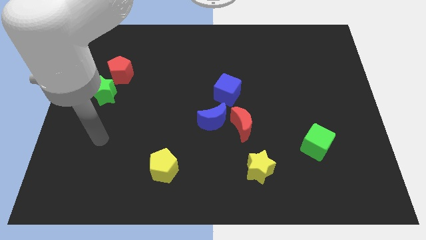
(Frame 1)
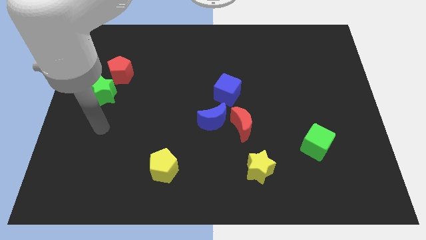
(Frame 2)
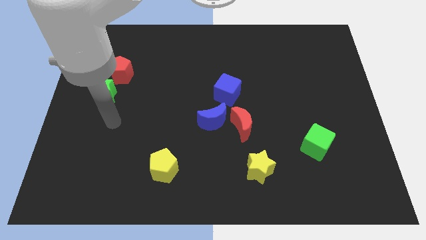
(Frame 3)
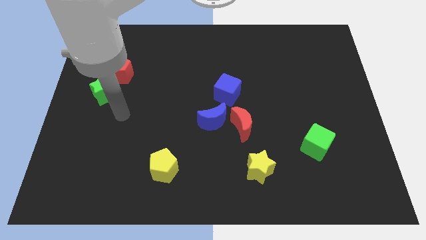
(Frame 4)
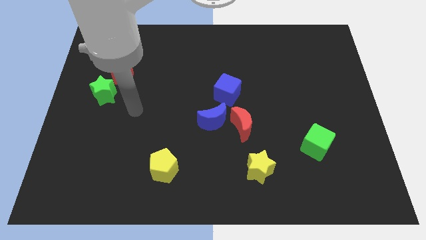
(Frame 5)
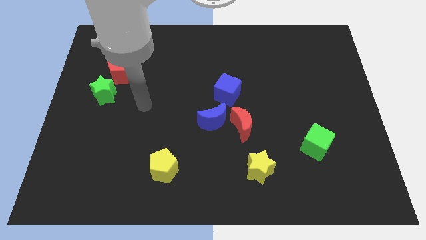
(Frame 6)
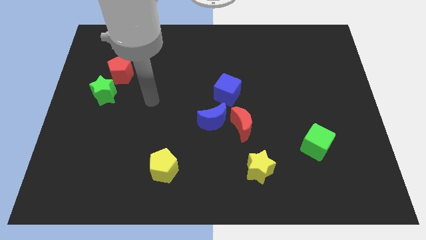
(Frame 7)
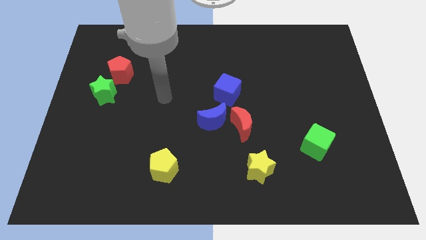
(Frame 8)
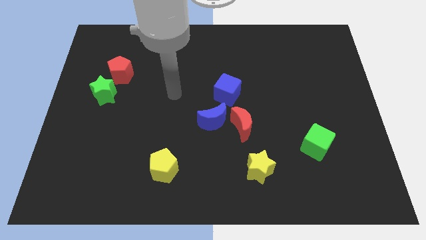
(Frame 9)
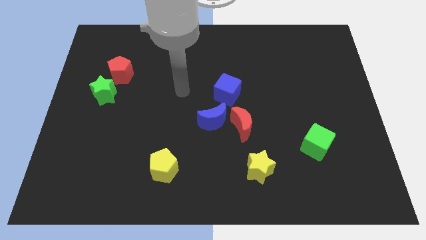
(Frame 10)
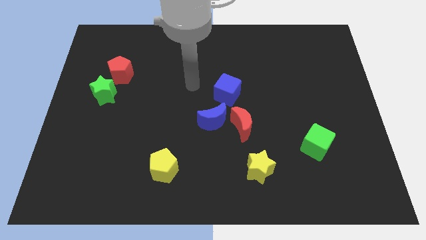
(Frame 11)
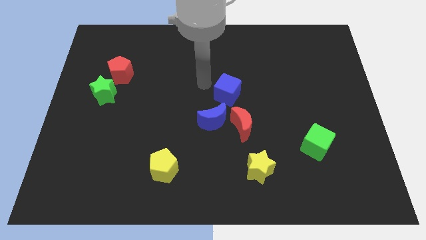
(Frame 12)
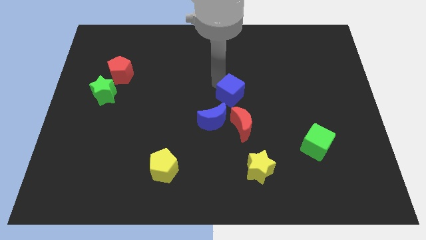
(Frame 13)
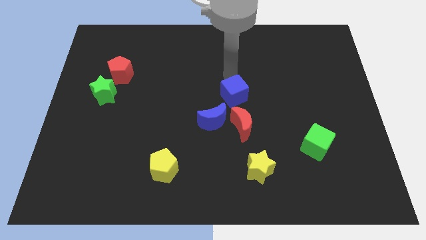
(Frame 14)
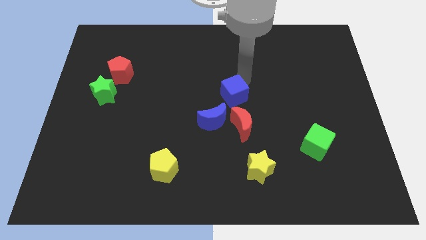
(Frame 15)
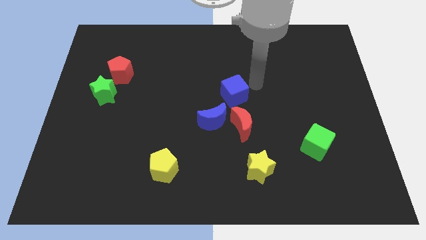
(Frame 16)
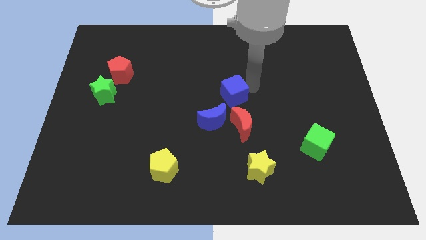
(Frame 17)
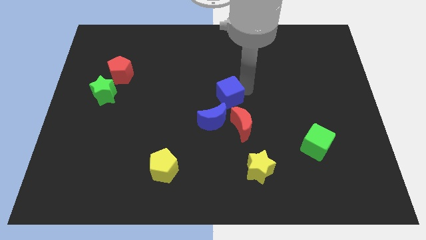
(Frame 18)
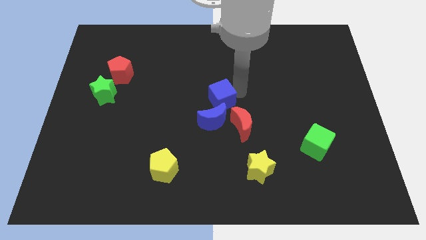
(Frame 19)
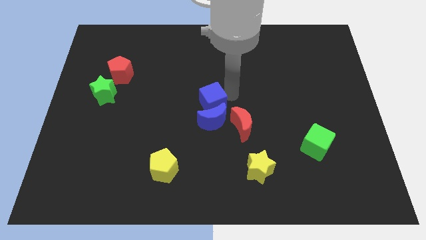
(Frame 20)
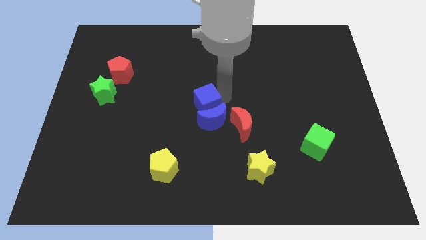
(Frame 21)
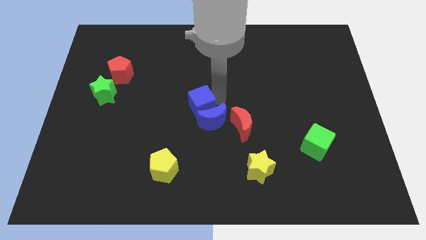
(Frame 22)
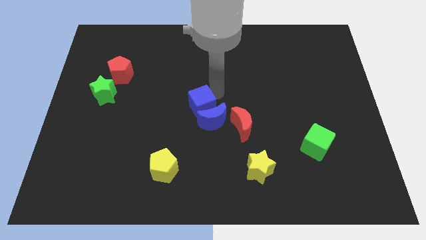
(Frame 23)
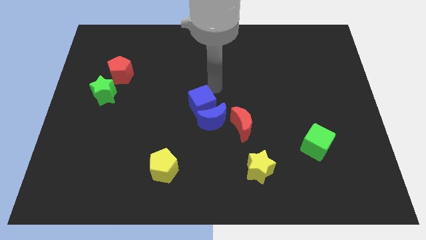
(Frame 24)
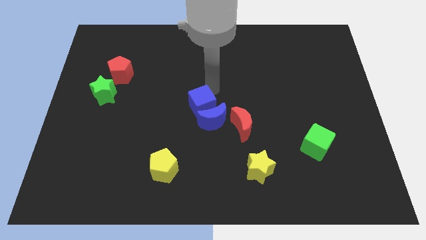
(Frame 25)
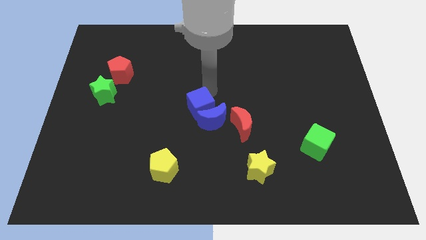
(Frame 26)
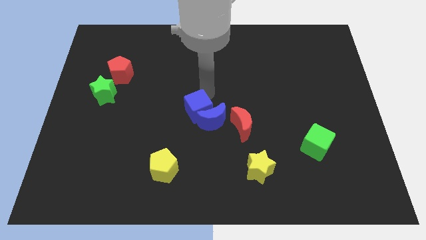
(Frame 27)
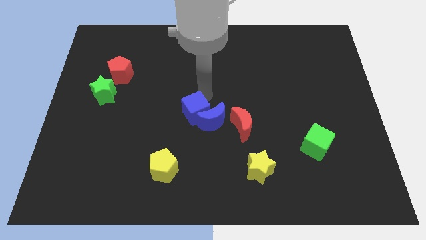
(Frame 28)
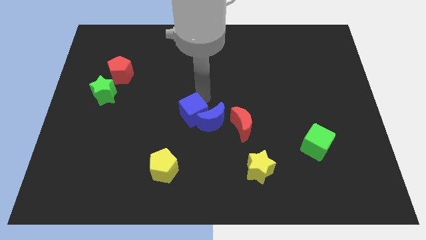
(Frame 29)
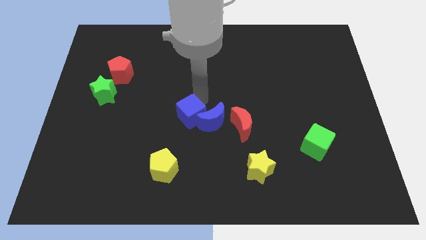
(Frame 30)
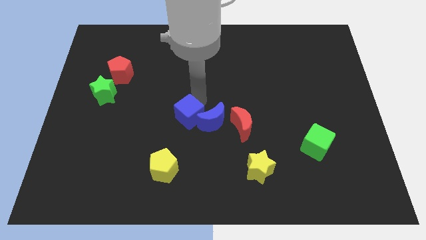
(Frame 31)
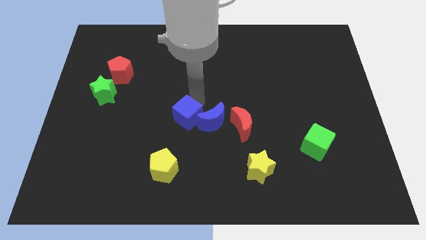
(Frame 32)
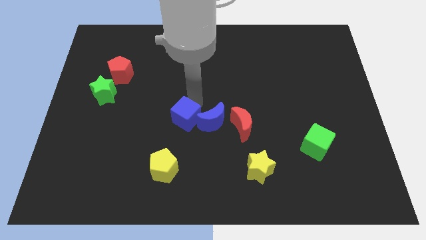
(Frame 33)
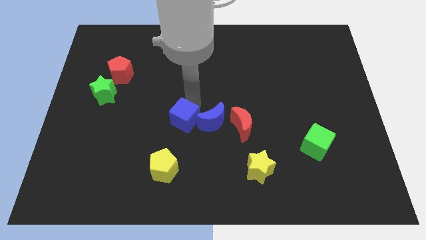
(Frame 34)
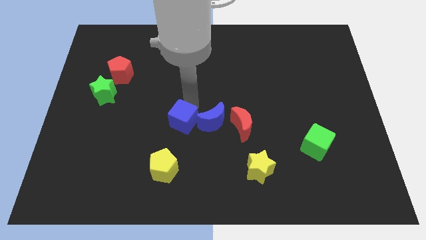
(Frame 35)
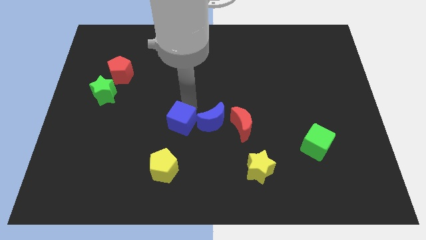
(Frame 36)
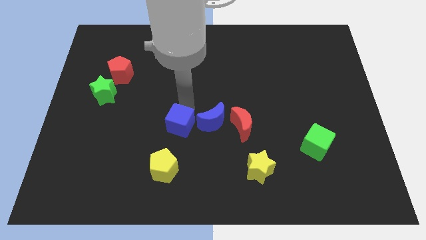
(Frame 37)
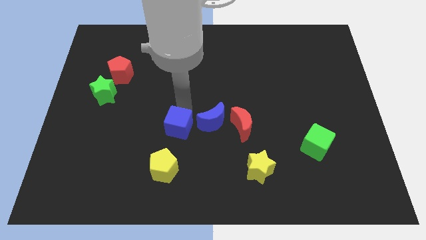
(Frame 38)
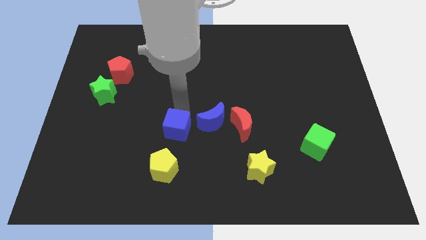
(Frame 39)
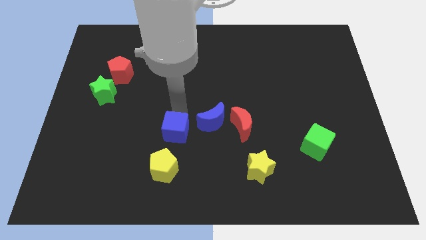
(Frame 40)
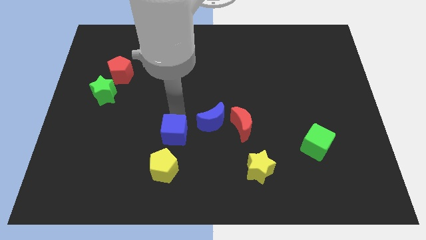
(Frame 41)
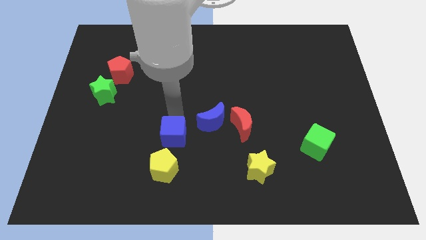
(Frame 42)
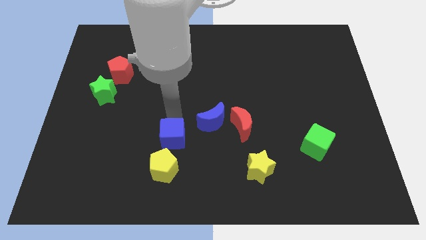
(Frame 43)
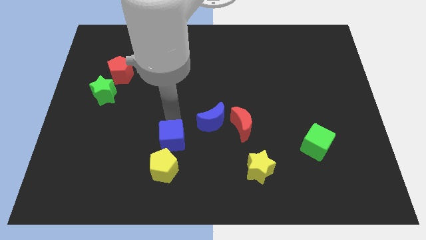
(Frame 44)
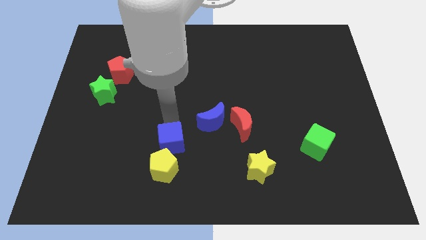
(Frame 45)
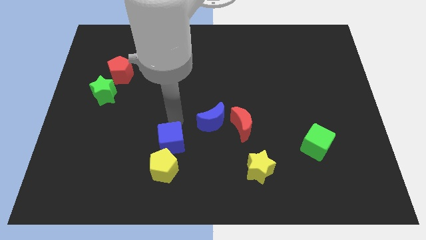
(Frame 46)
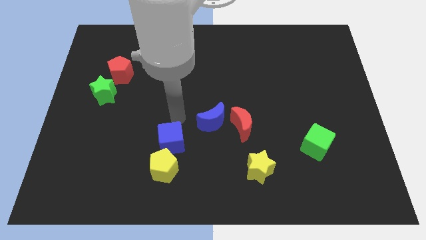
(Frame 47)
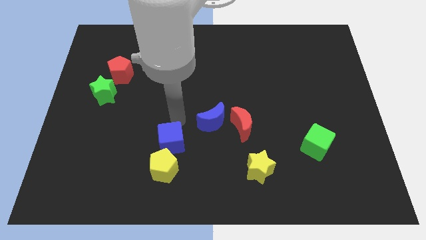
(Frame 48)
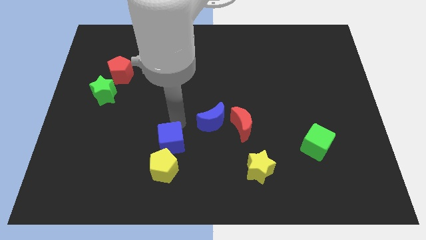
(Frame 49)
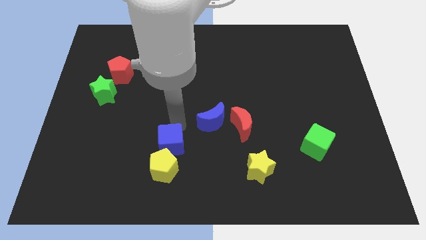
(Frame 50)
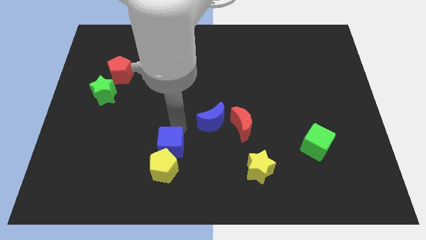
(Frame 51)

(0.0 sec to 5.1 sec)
put the blue cube towards the yellow pentagon

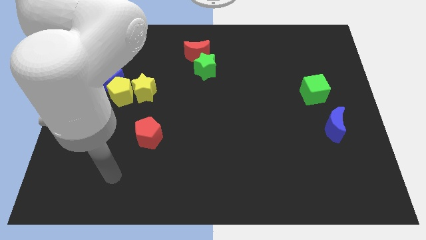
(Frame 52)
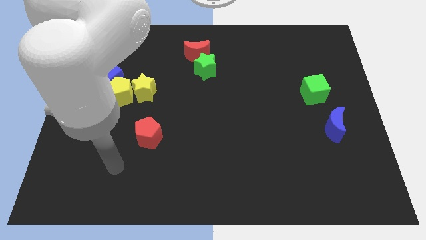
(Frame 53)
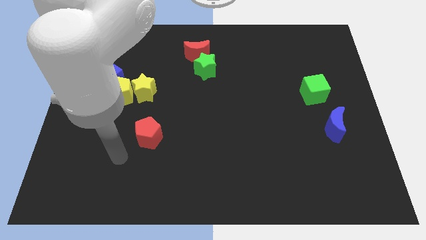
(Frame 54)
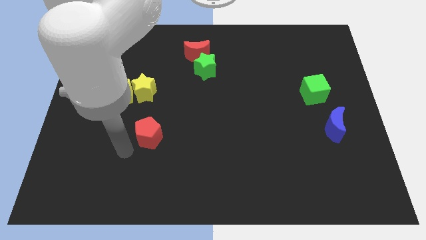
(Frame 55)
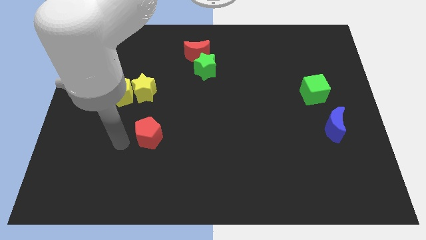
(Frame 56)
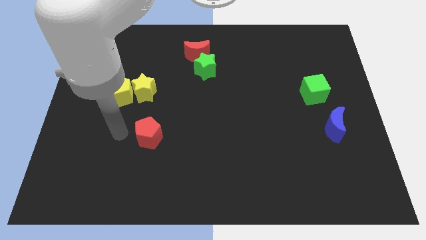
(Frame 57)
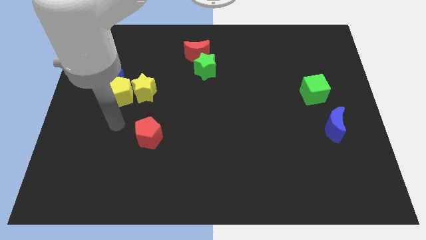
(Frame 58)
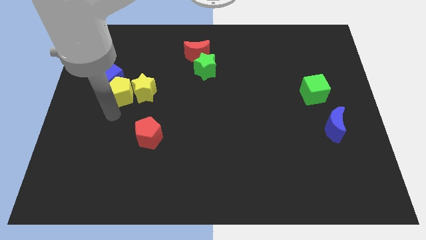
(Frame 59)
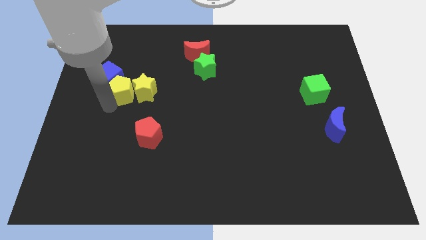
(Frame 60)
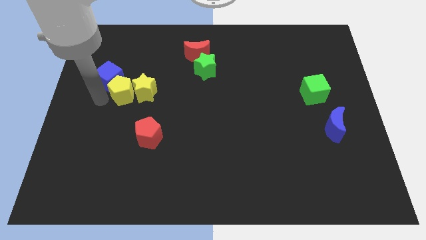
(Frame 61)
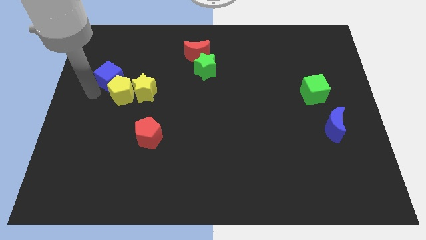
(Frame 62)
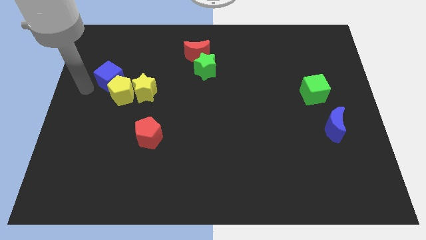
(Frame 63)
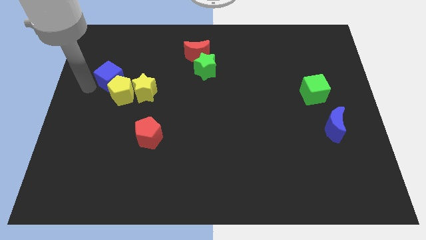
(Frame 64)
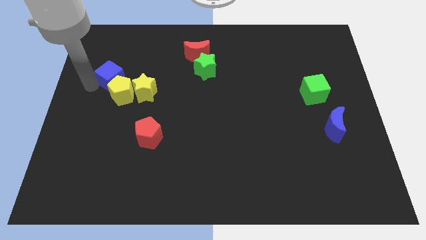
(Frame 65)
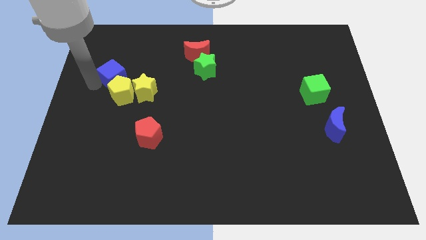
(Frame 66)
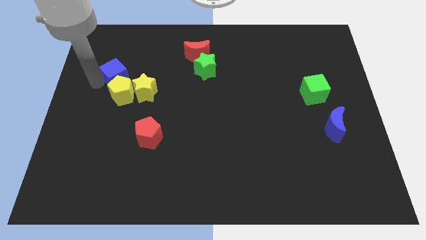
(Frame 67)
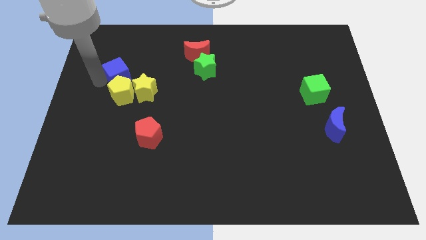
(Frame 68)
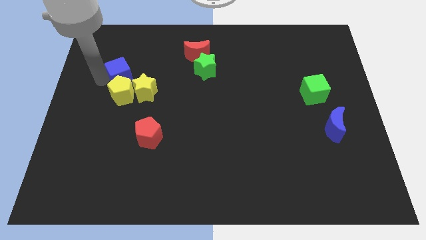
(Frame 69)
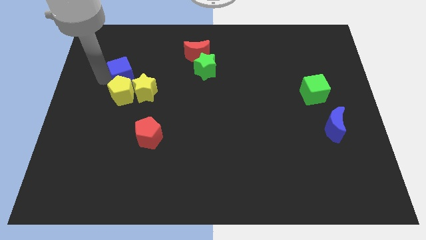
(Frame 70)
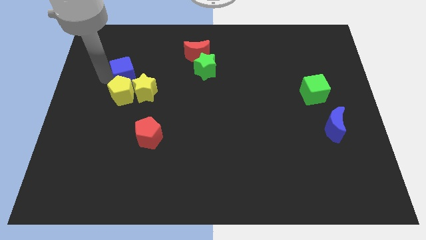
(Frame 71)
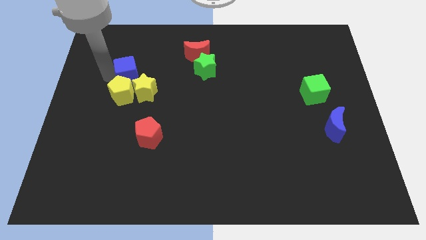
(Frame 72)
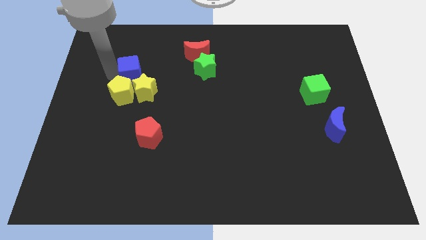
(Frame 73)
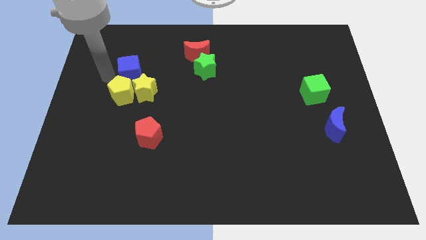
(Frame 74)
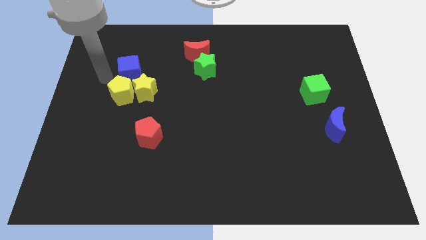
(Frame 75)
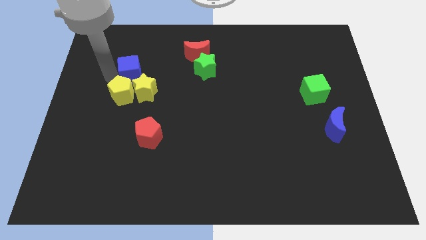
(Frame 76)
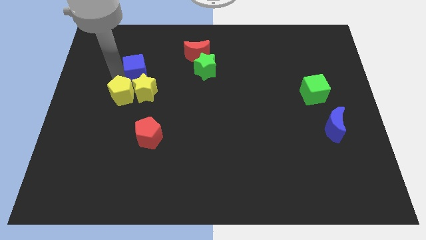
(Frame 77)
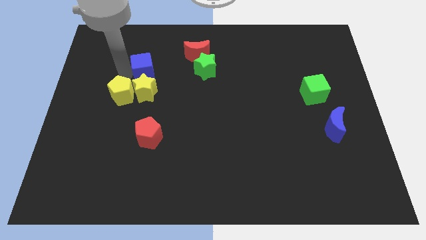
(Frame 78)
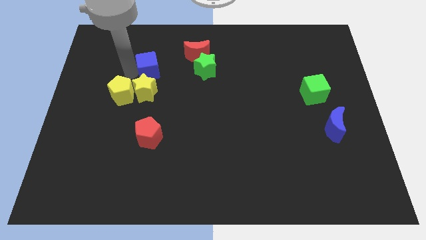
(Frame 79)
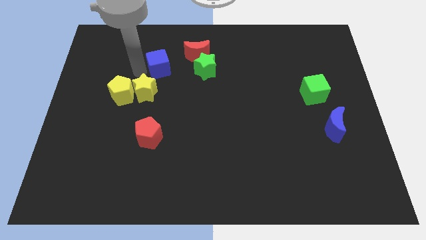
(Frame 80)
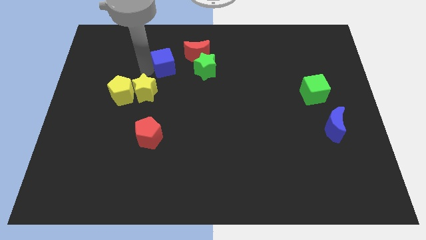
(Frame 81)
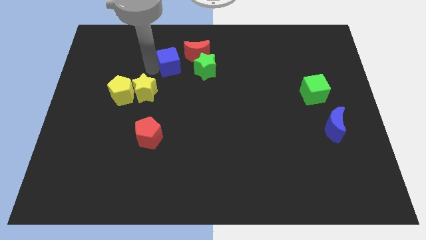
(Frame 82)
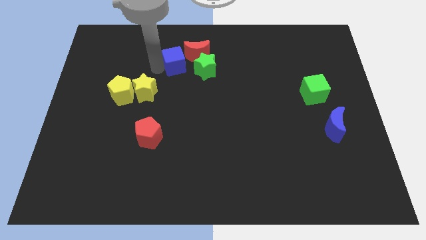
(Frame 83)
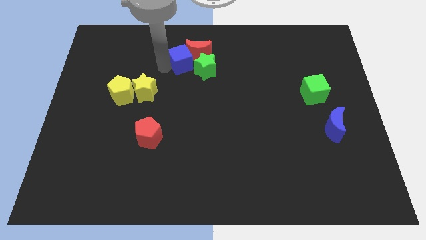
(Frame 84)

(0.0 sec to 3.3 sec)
slide the blue cube close to the red moon
